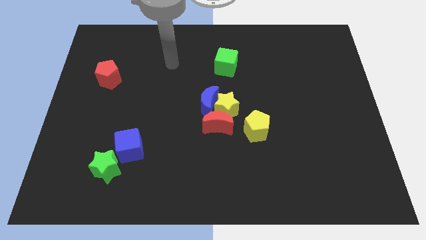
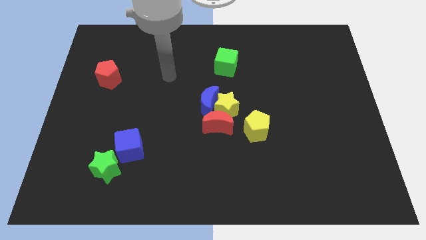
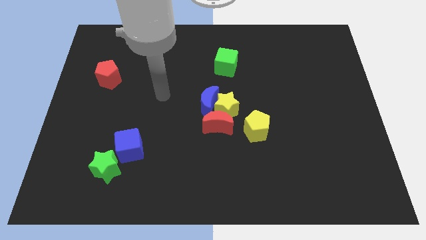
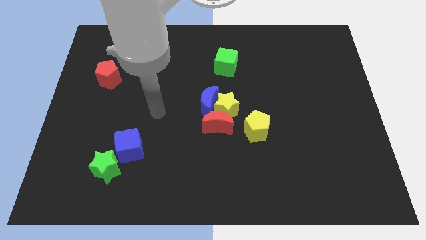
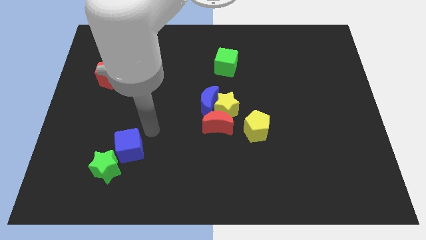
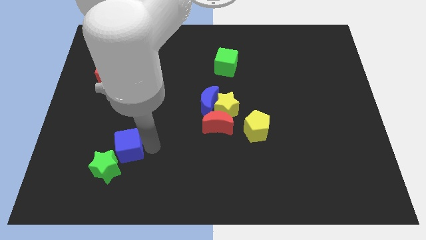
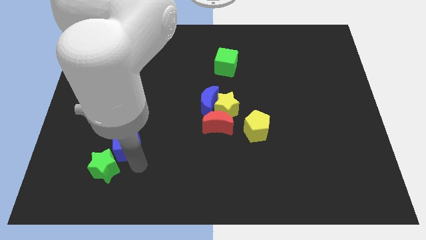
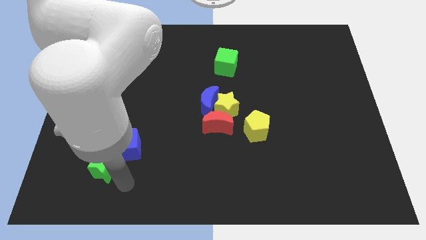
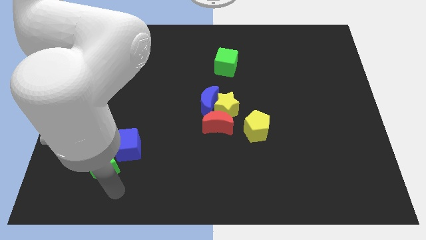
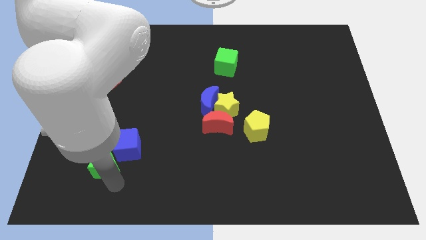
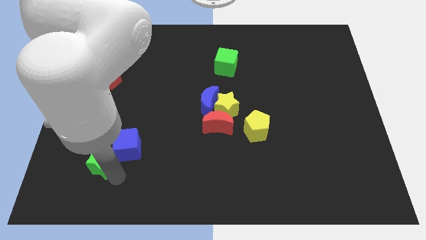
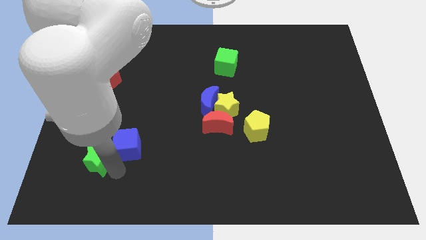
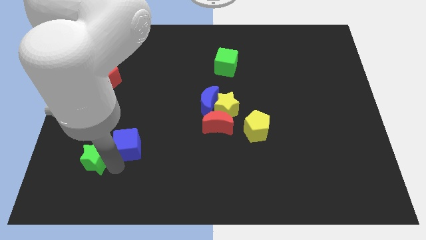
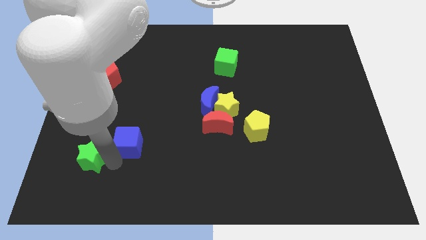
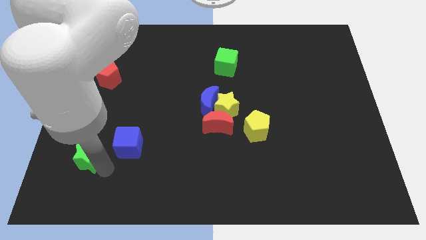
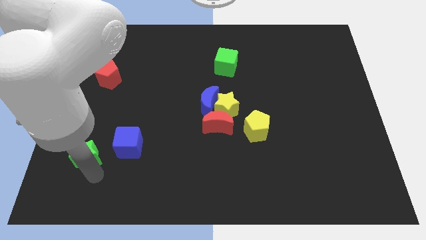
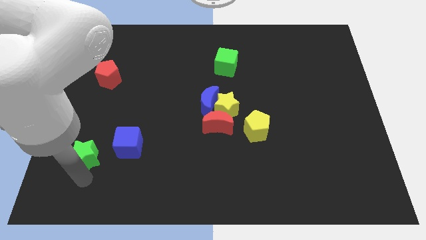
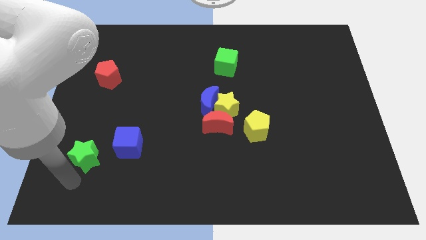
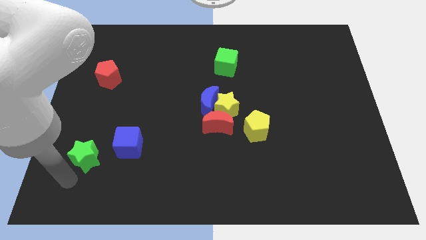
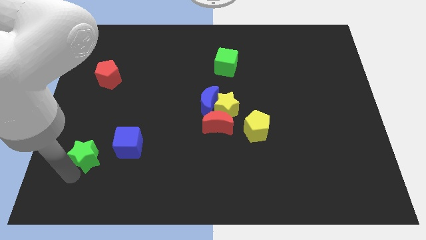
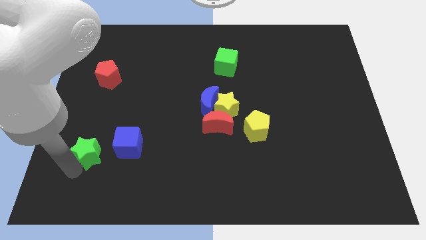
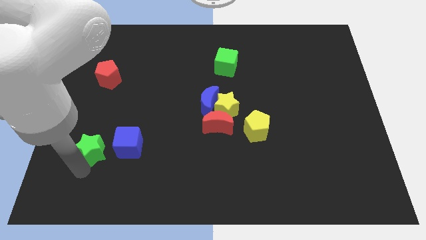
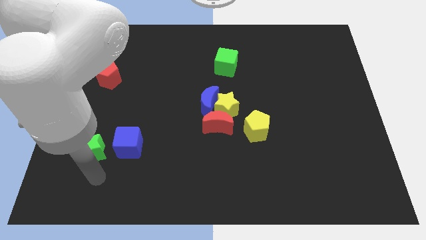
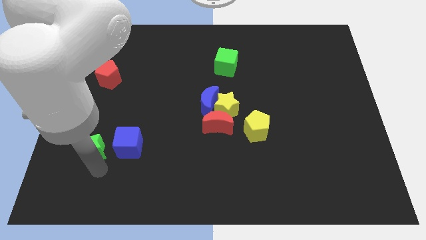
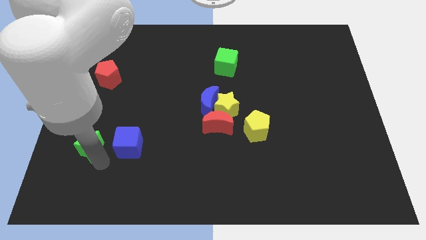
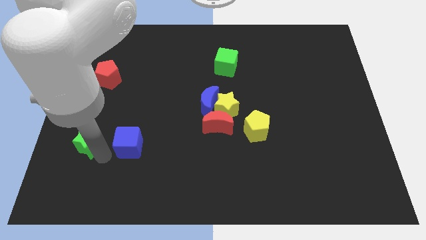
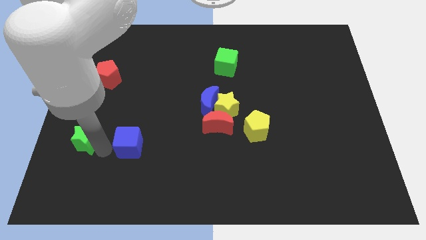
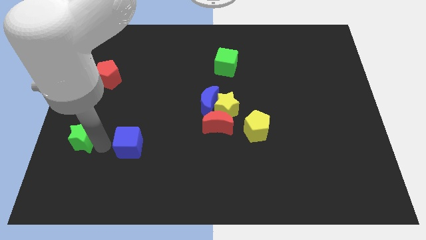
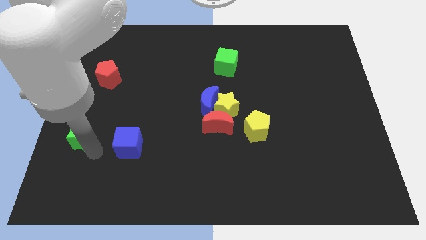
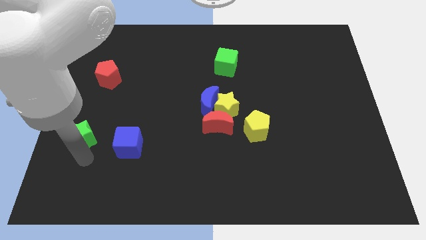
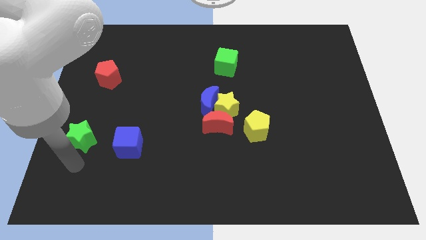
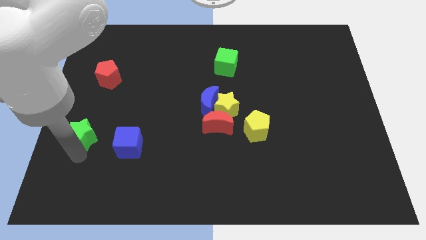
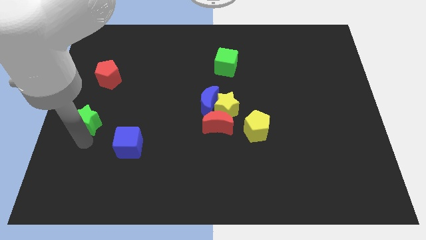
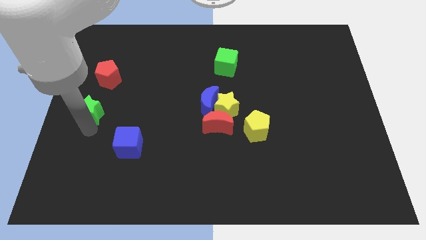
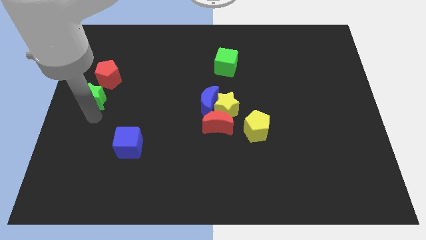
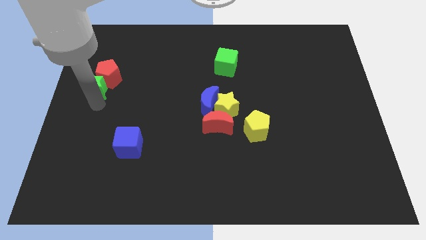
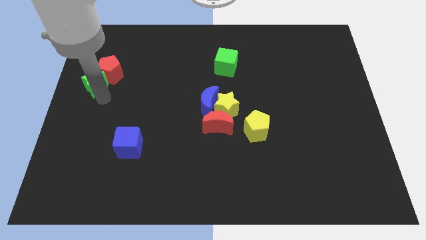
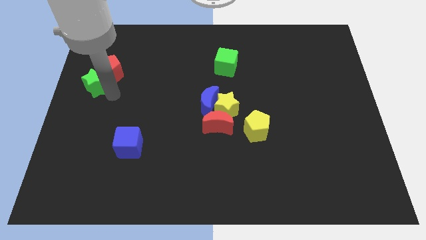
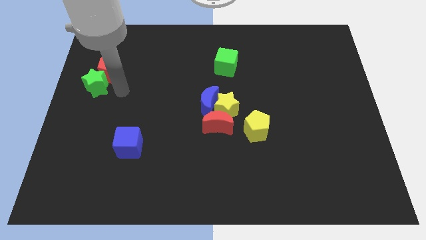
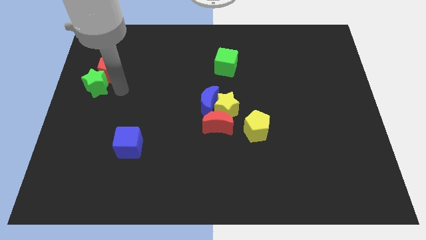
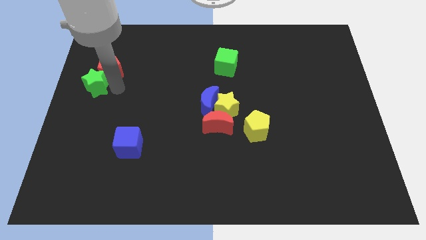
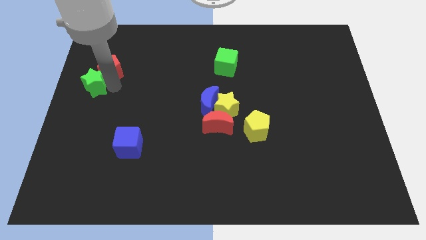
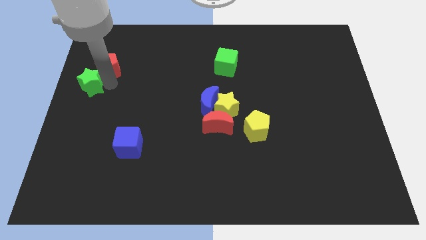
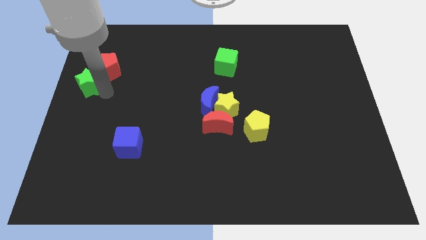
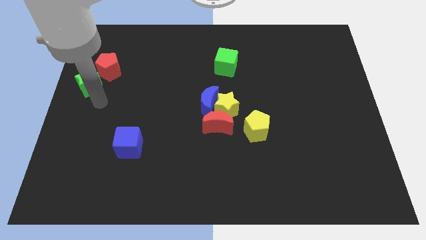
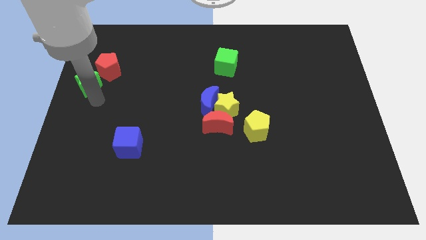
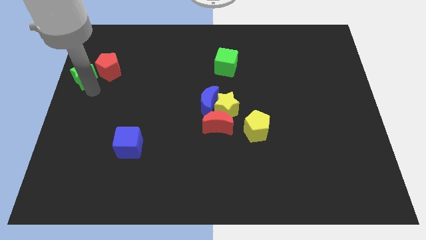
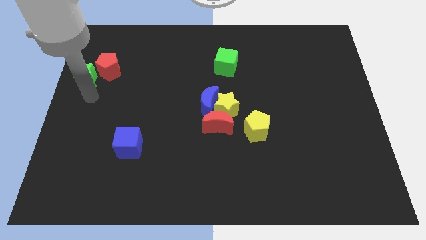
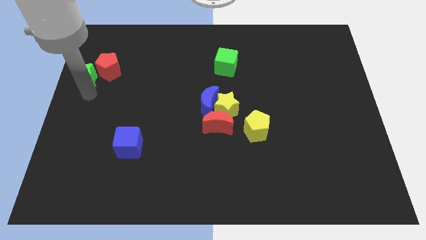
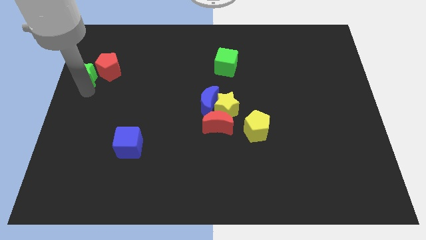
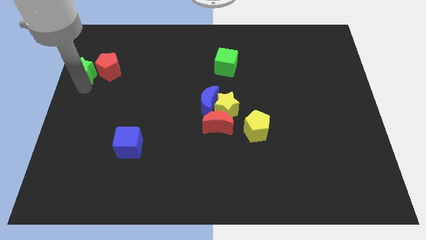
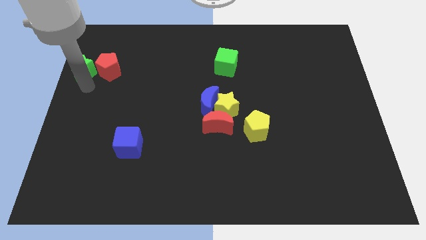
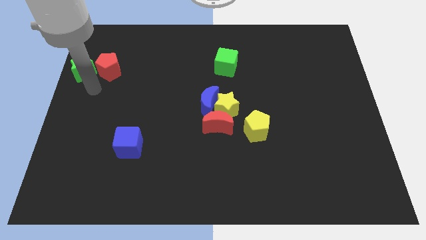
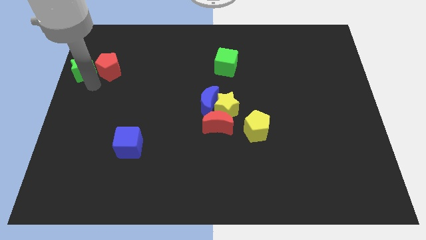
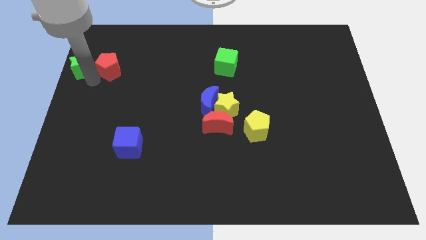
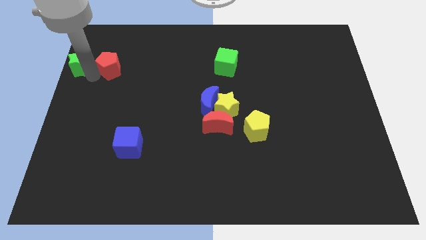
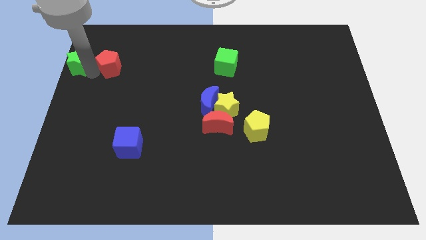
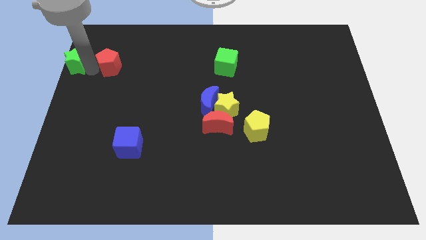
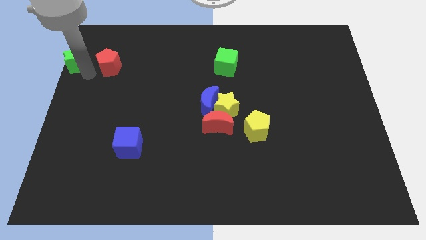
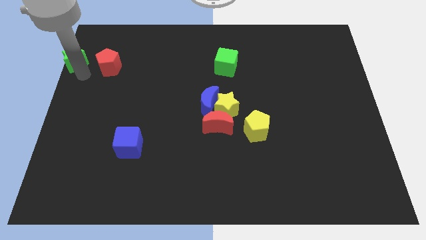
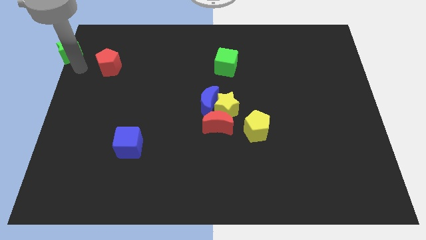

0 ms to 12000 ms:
push the green star to the top left of the board
